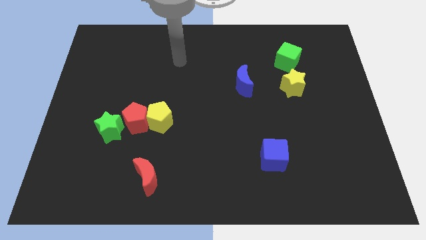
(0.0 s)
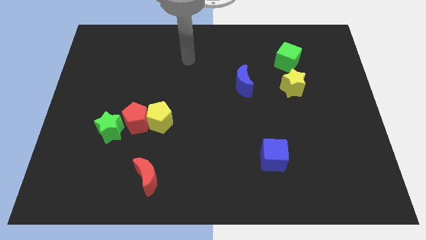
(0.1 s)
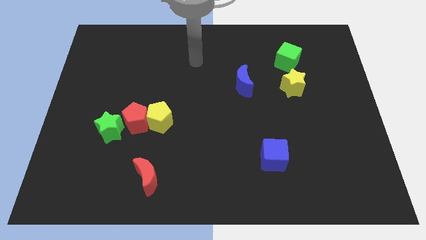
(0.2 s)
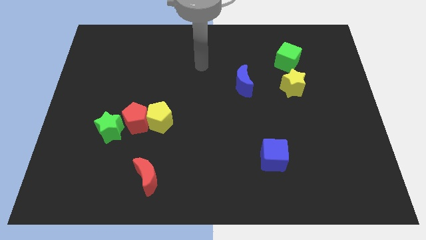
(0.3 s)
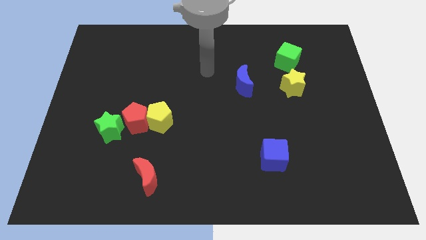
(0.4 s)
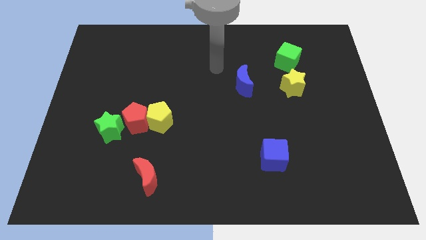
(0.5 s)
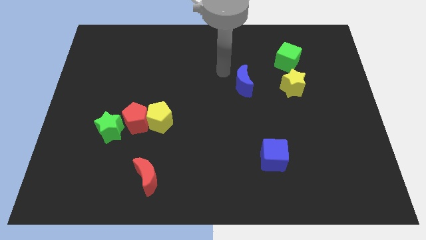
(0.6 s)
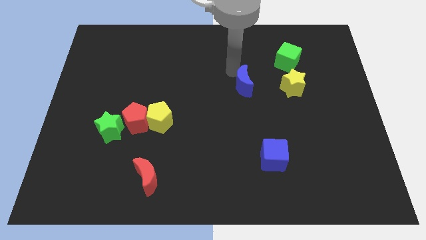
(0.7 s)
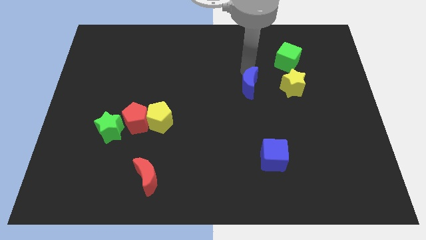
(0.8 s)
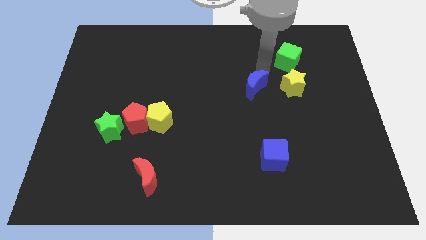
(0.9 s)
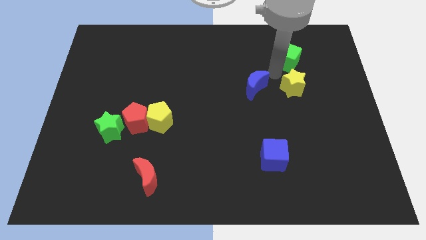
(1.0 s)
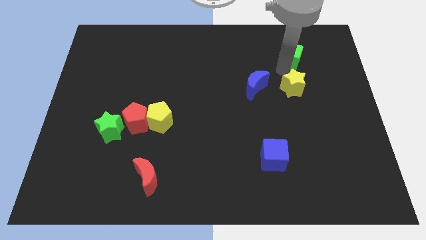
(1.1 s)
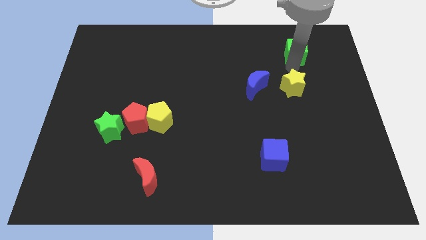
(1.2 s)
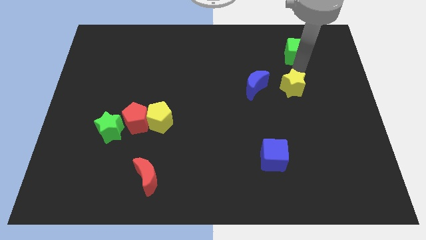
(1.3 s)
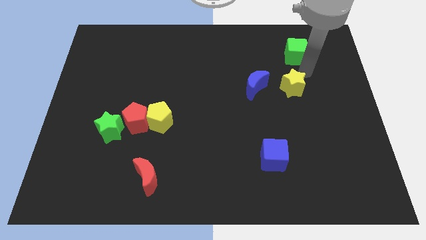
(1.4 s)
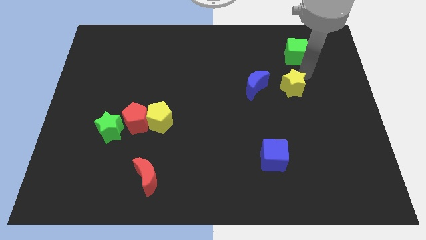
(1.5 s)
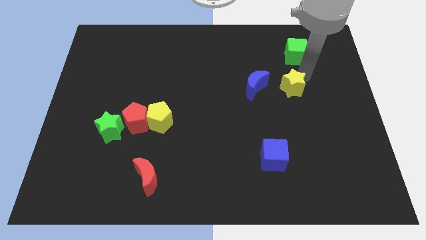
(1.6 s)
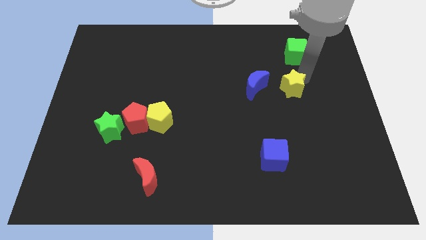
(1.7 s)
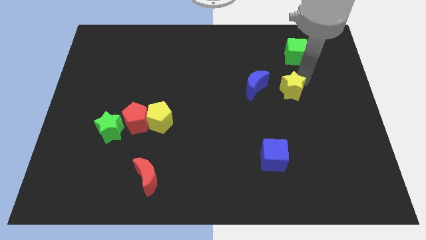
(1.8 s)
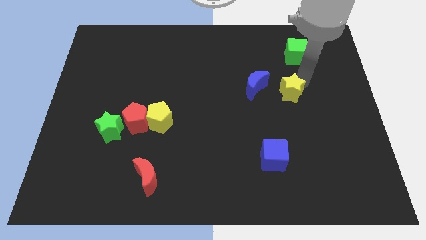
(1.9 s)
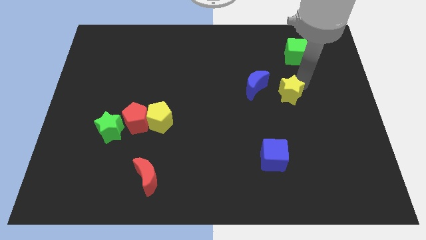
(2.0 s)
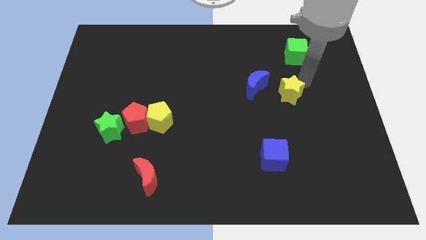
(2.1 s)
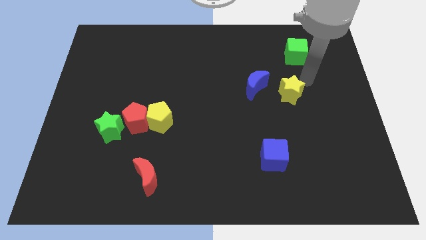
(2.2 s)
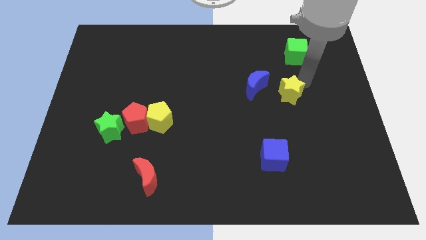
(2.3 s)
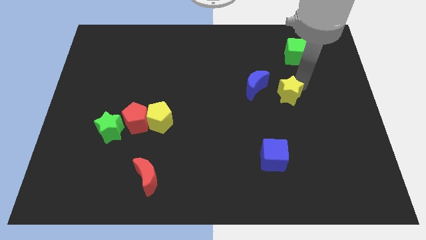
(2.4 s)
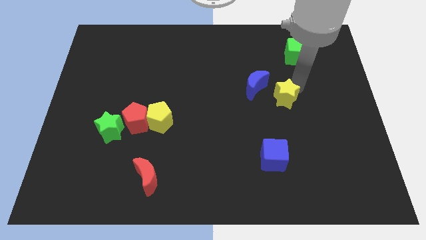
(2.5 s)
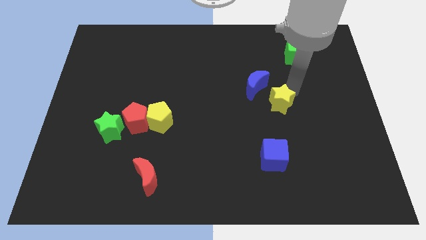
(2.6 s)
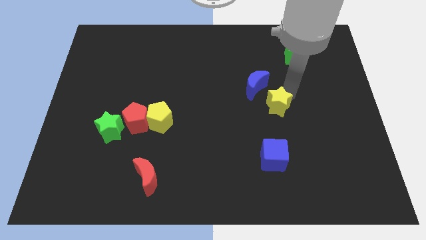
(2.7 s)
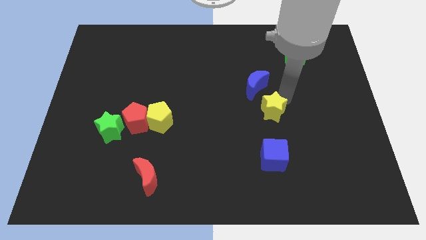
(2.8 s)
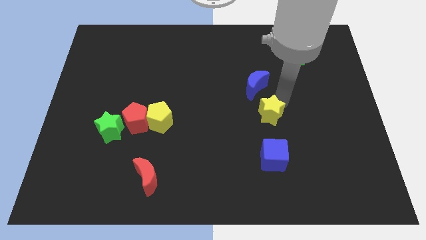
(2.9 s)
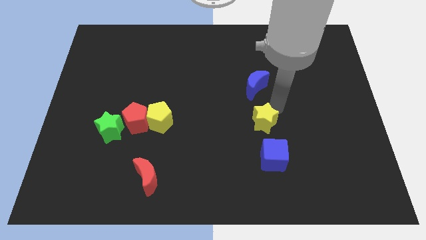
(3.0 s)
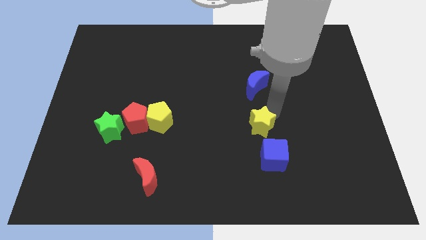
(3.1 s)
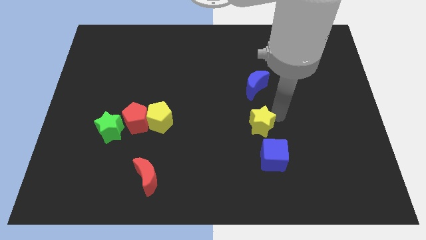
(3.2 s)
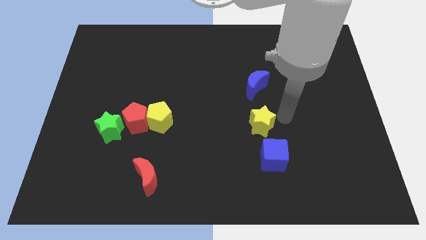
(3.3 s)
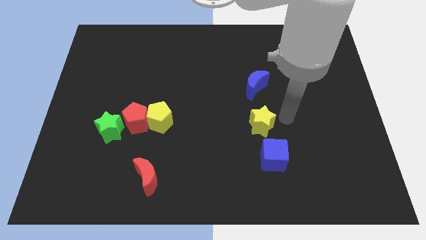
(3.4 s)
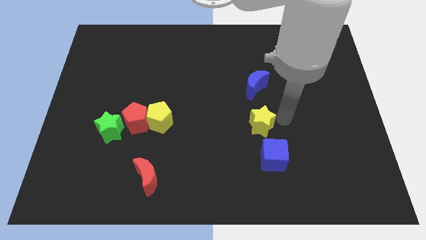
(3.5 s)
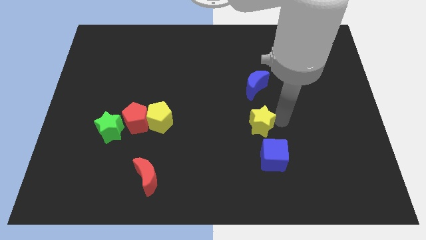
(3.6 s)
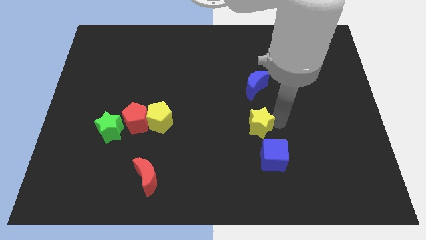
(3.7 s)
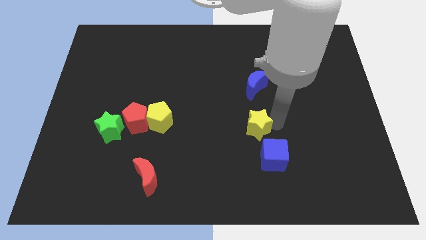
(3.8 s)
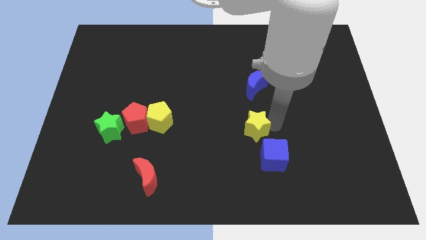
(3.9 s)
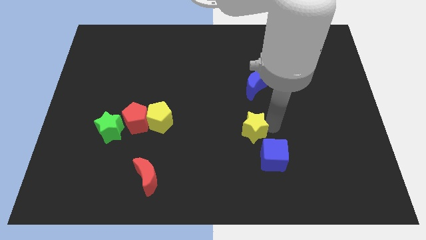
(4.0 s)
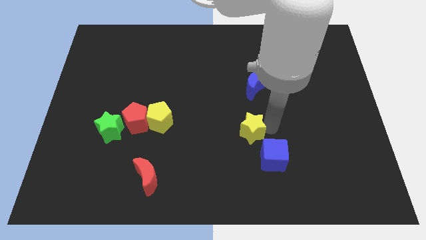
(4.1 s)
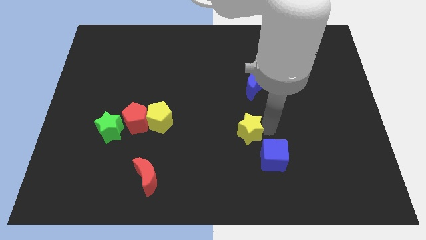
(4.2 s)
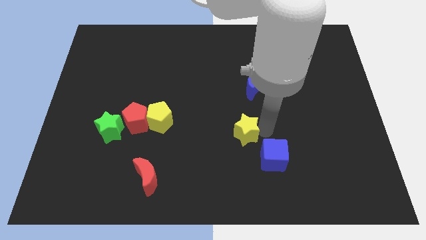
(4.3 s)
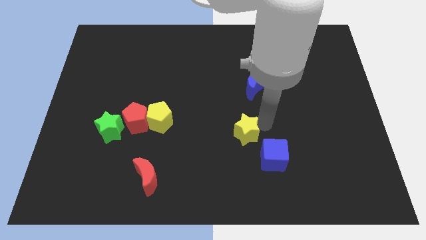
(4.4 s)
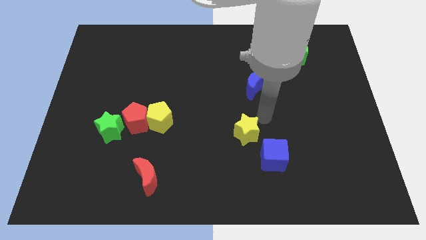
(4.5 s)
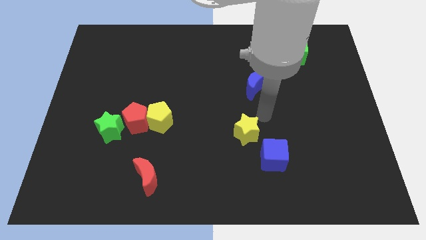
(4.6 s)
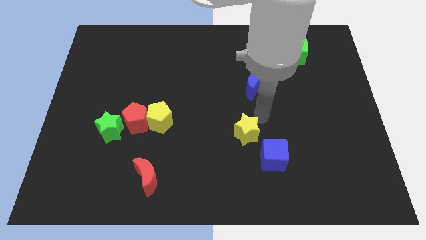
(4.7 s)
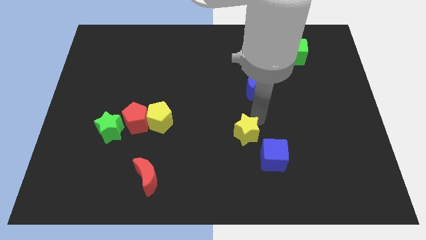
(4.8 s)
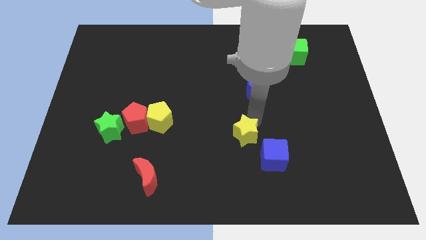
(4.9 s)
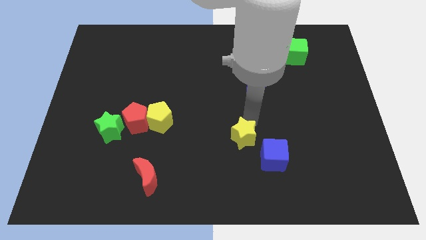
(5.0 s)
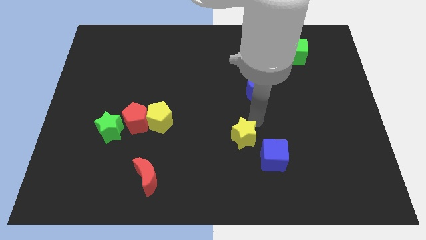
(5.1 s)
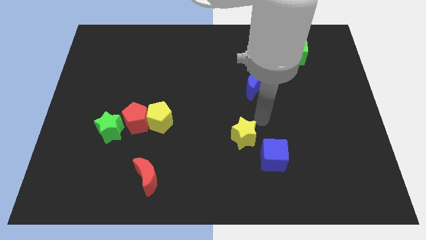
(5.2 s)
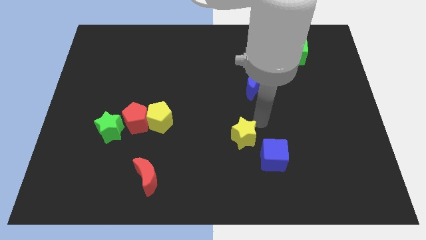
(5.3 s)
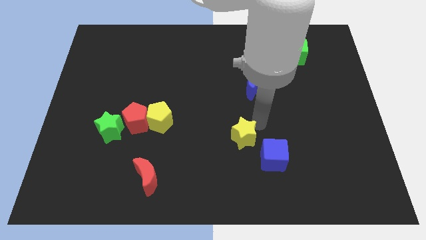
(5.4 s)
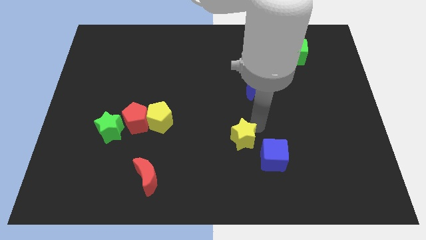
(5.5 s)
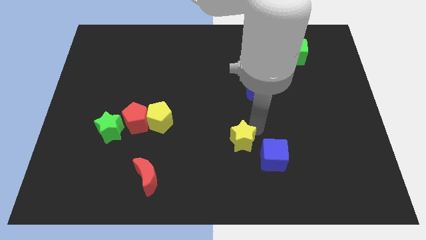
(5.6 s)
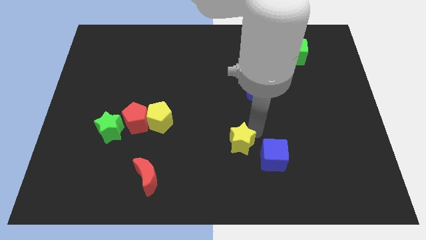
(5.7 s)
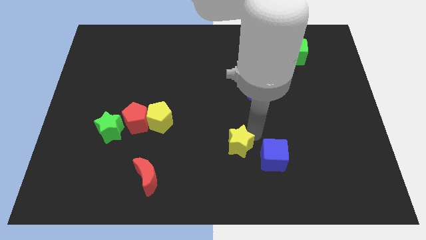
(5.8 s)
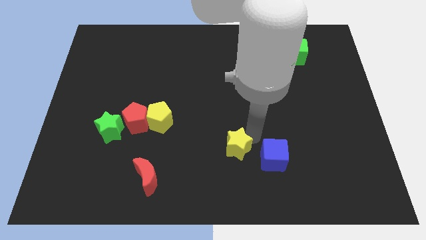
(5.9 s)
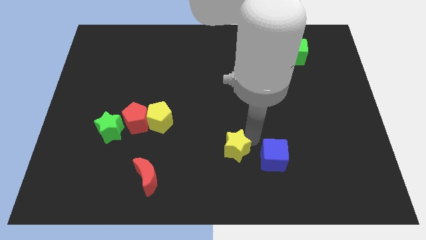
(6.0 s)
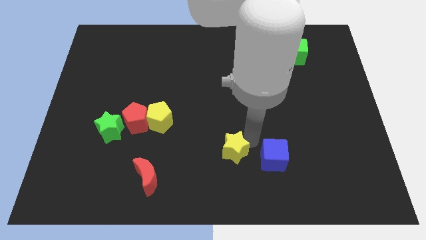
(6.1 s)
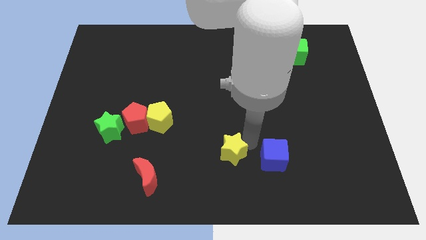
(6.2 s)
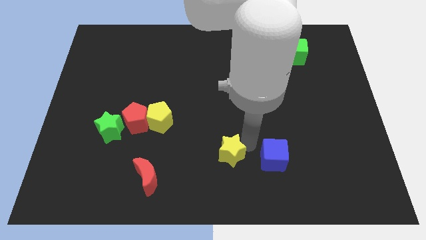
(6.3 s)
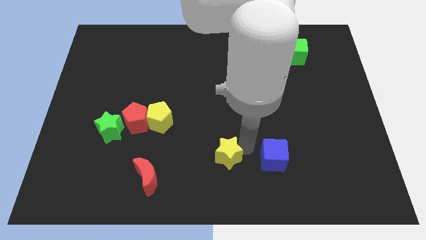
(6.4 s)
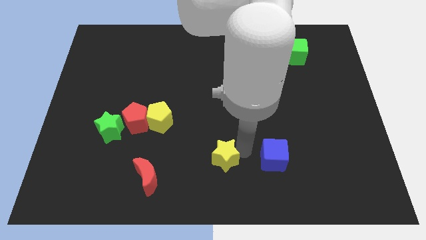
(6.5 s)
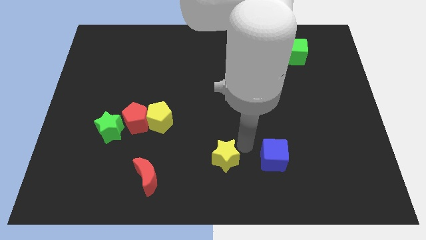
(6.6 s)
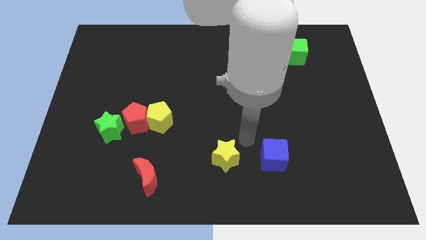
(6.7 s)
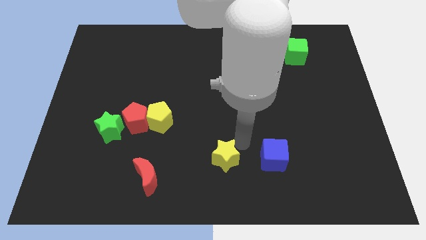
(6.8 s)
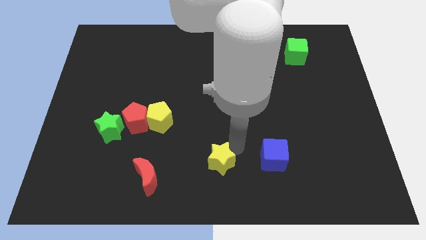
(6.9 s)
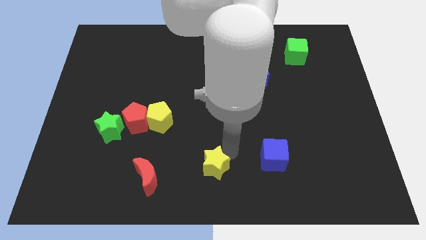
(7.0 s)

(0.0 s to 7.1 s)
move the yellow star just right of the red moon

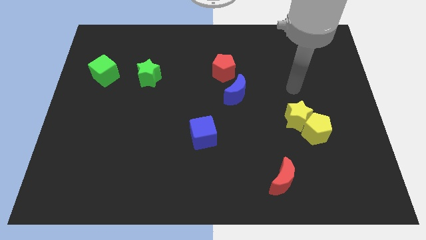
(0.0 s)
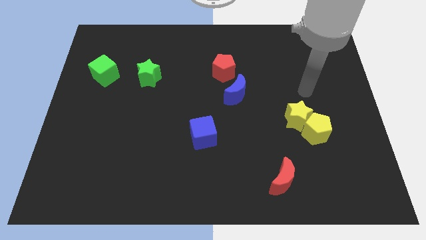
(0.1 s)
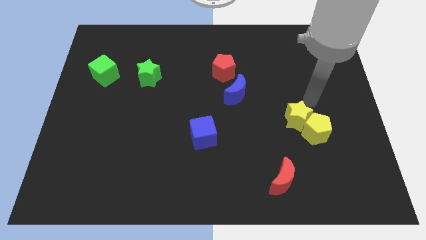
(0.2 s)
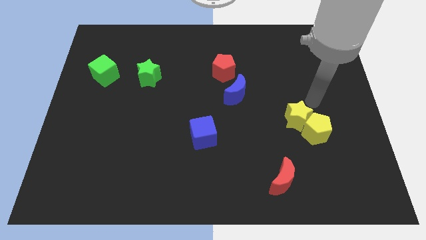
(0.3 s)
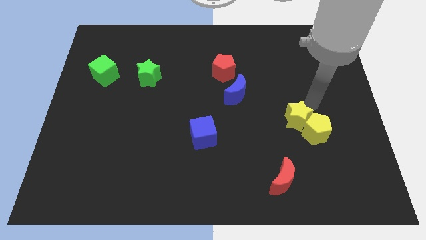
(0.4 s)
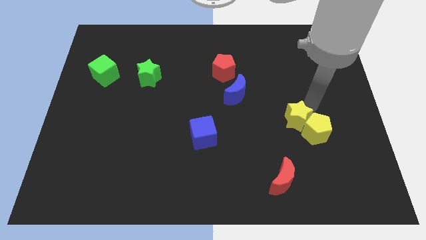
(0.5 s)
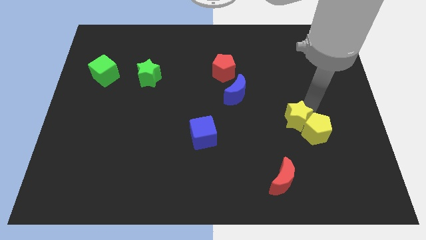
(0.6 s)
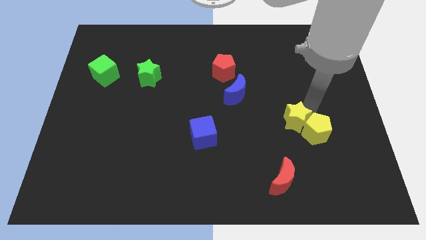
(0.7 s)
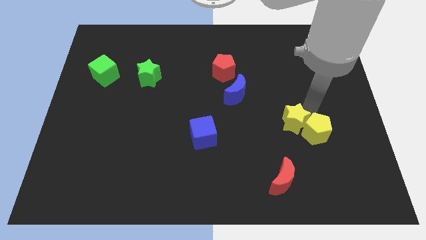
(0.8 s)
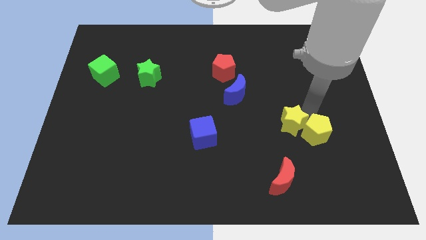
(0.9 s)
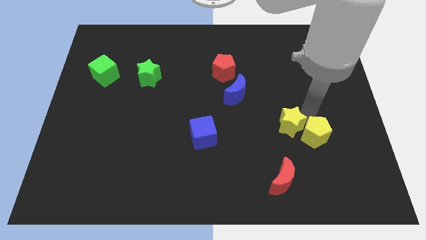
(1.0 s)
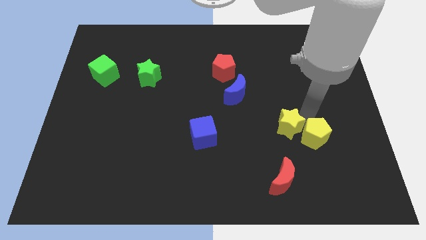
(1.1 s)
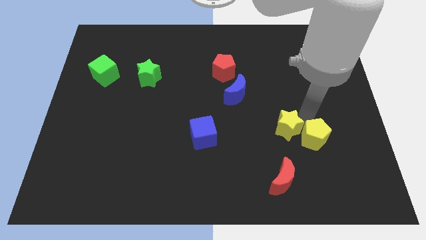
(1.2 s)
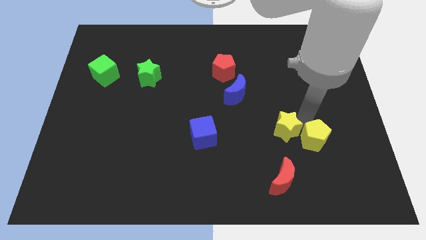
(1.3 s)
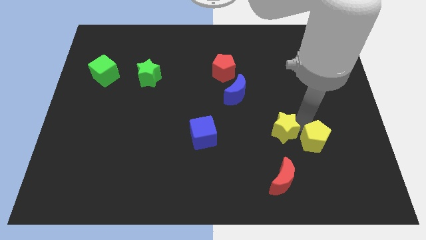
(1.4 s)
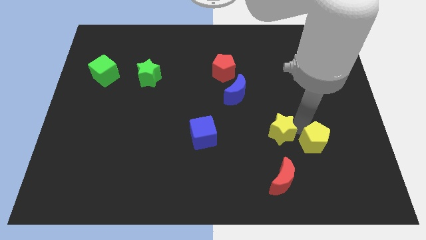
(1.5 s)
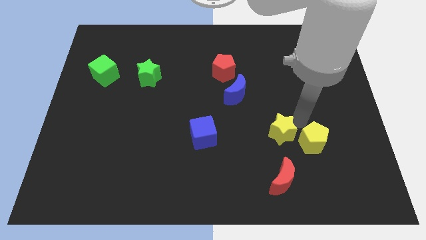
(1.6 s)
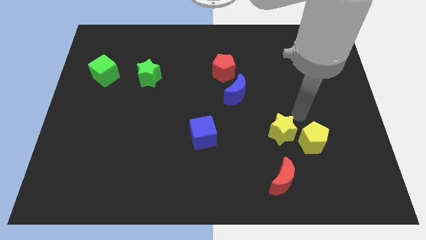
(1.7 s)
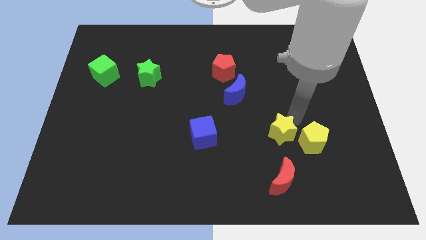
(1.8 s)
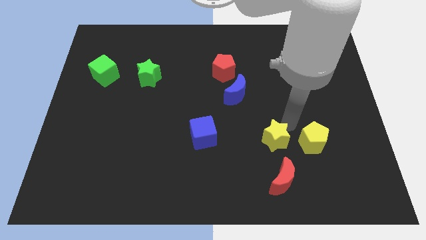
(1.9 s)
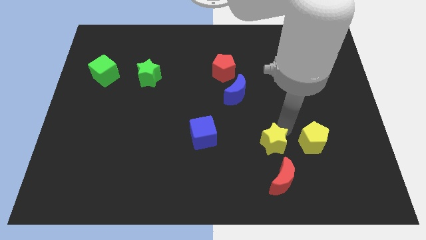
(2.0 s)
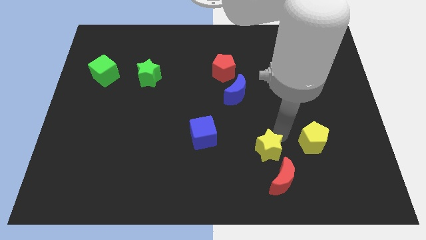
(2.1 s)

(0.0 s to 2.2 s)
push the yellow star diagonally up and to the left of the red moon
